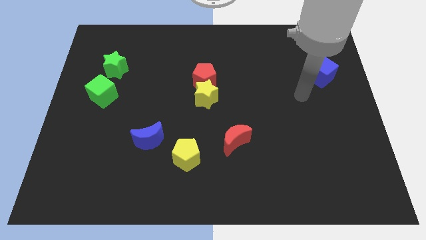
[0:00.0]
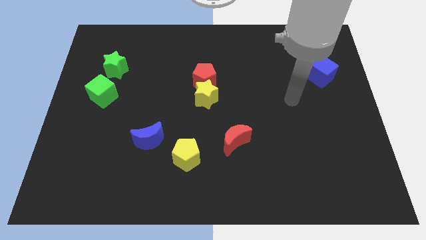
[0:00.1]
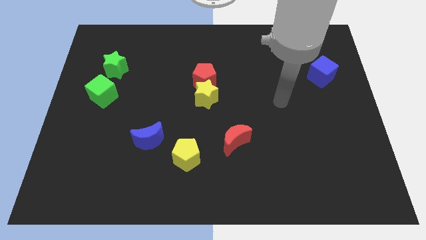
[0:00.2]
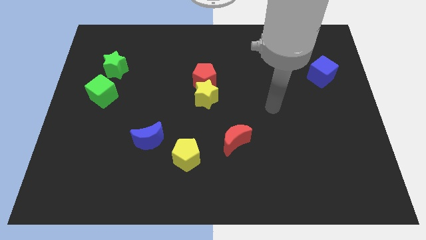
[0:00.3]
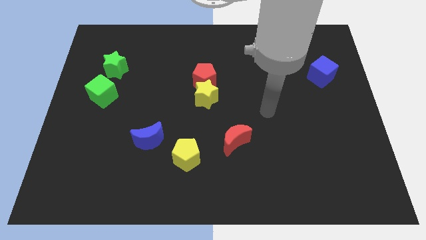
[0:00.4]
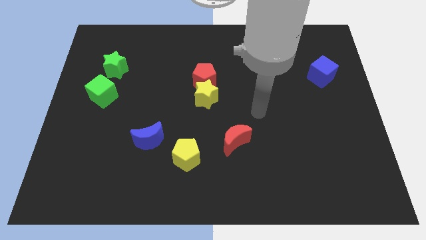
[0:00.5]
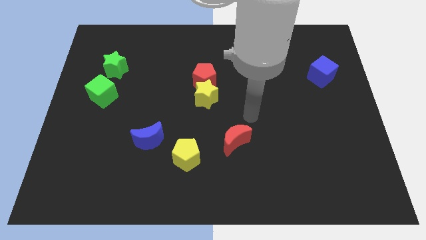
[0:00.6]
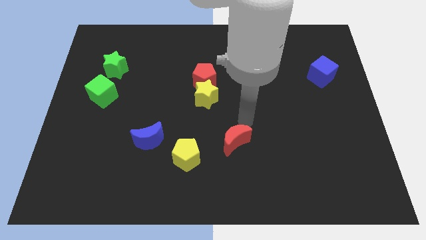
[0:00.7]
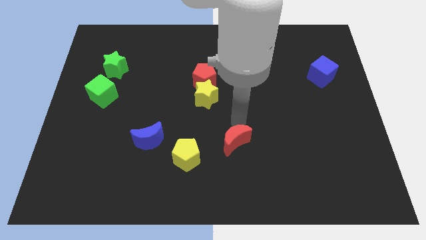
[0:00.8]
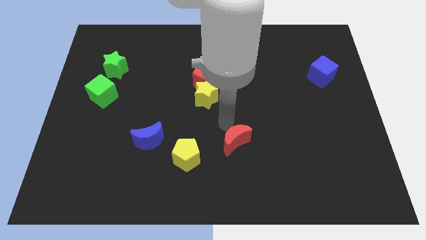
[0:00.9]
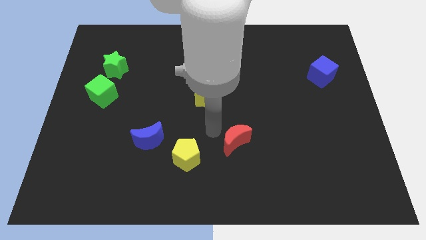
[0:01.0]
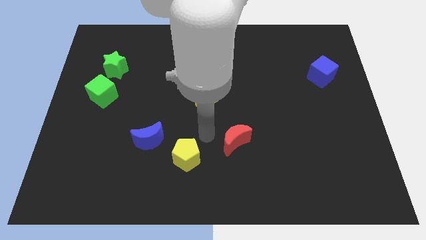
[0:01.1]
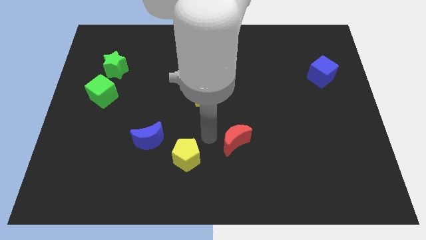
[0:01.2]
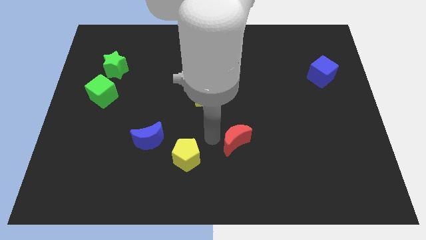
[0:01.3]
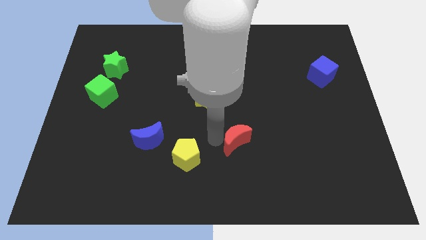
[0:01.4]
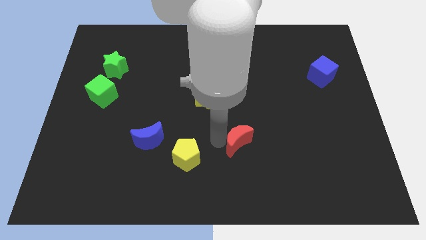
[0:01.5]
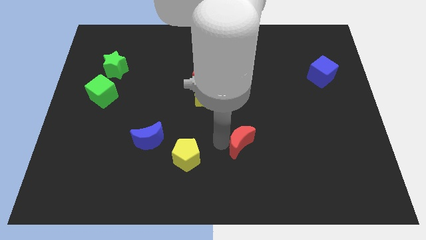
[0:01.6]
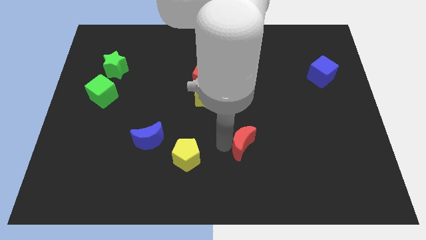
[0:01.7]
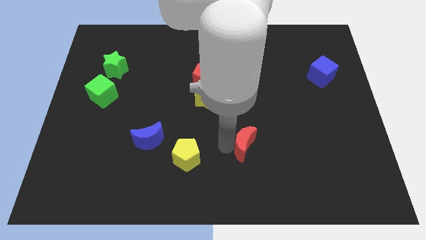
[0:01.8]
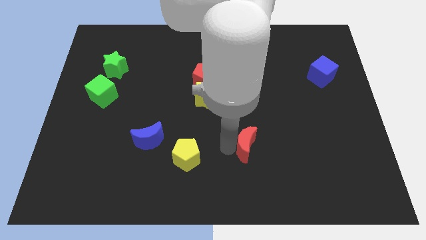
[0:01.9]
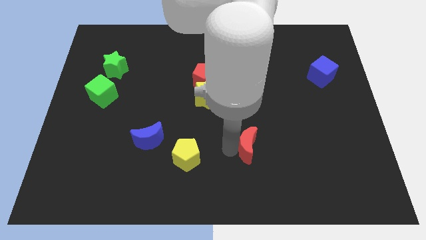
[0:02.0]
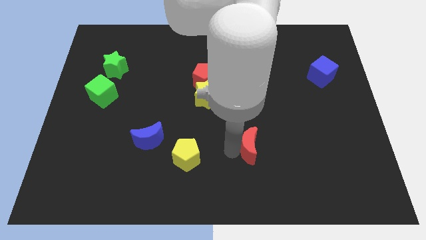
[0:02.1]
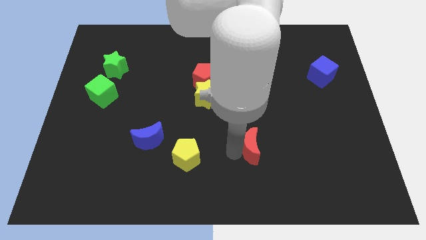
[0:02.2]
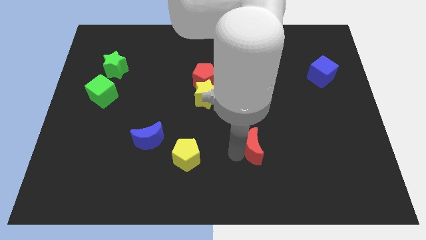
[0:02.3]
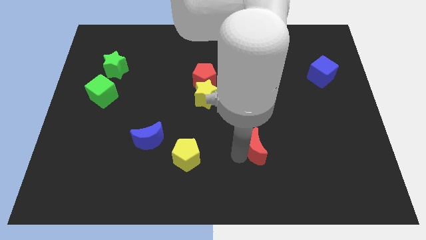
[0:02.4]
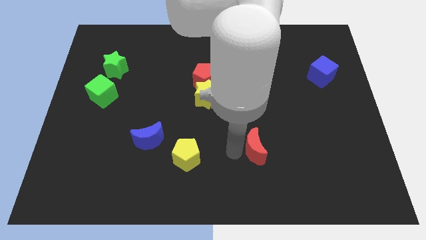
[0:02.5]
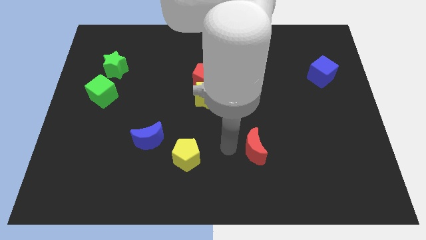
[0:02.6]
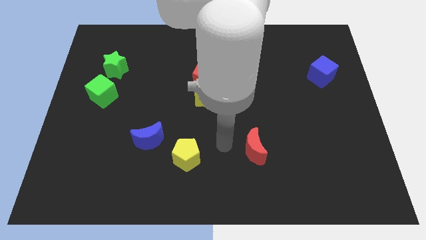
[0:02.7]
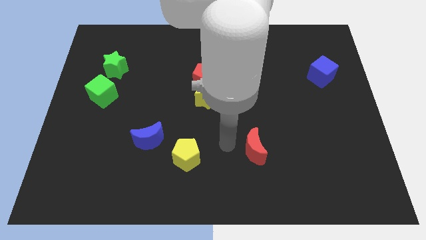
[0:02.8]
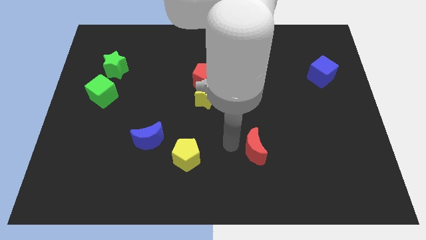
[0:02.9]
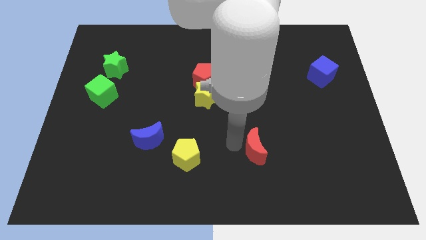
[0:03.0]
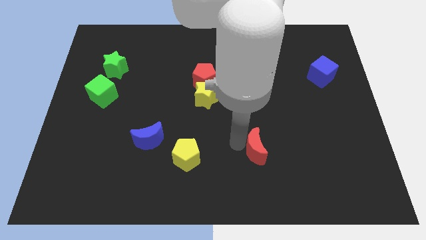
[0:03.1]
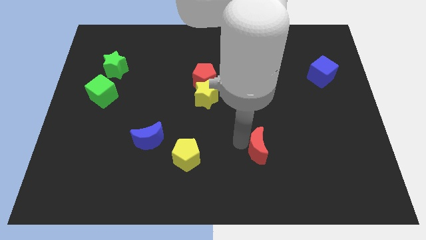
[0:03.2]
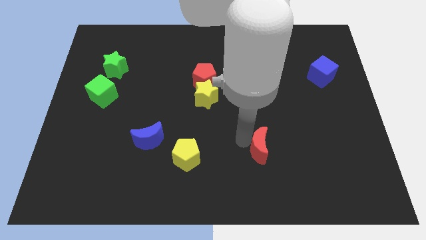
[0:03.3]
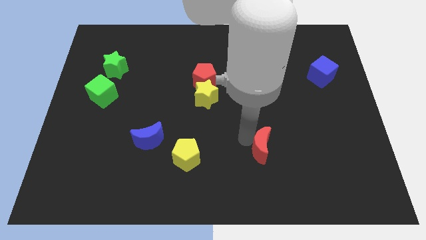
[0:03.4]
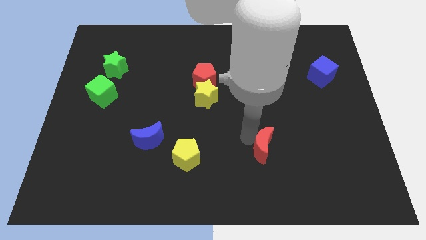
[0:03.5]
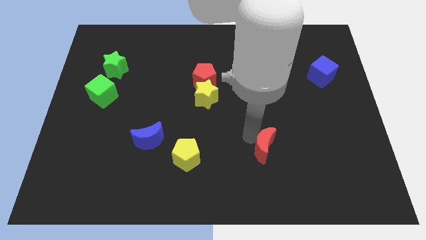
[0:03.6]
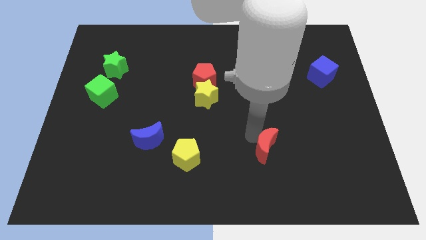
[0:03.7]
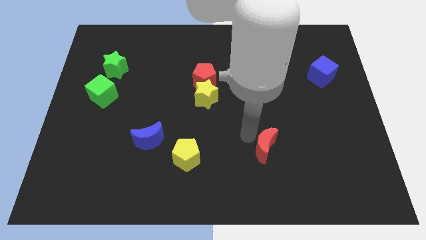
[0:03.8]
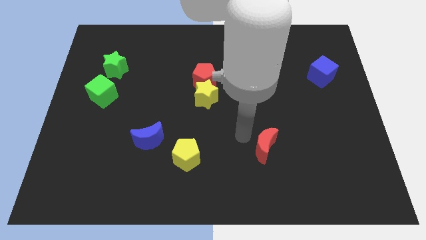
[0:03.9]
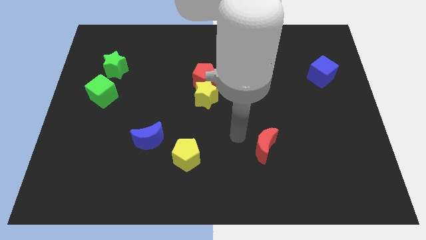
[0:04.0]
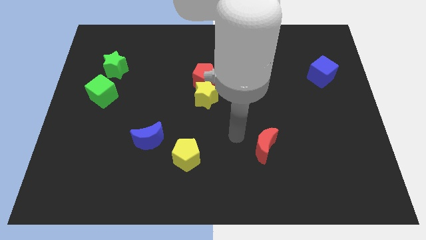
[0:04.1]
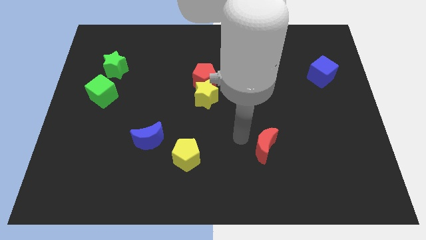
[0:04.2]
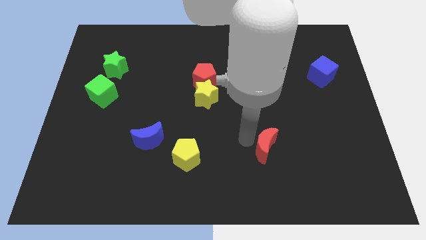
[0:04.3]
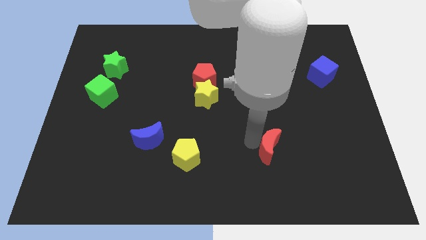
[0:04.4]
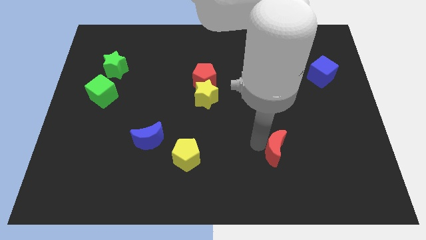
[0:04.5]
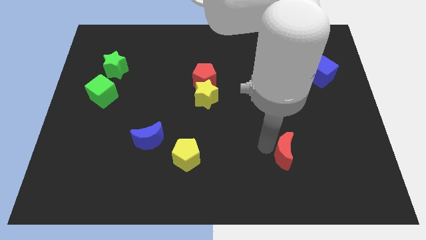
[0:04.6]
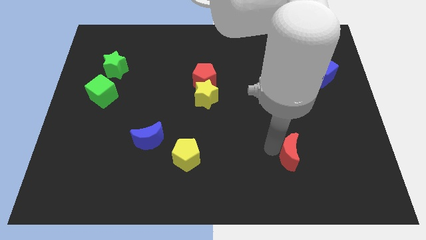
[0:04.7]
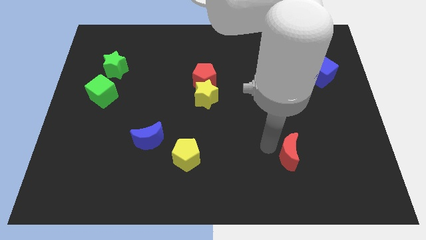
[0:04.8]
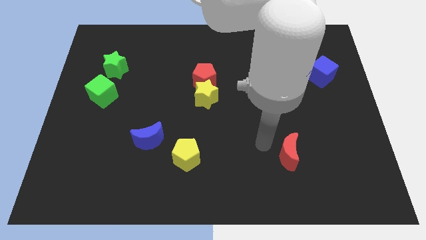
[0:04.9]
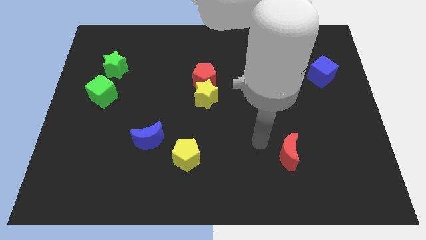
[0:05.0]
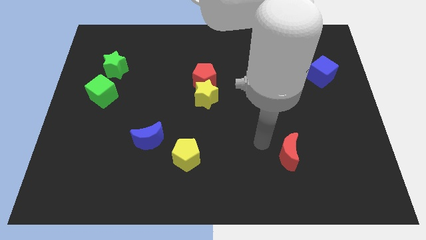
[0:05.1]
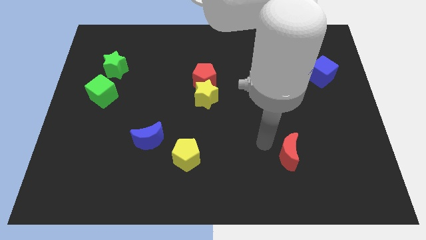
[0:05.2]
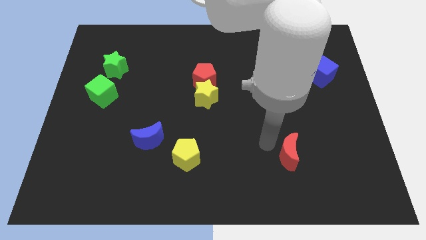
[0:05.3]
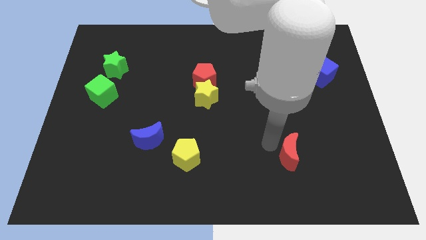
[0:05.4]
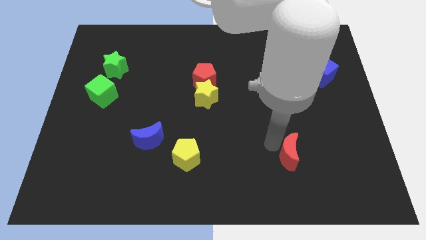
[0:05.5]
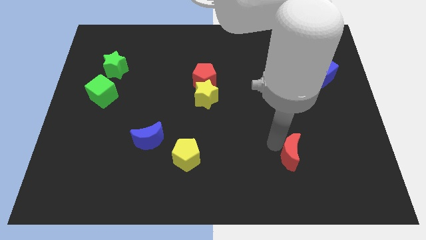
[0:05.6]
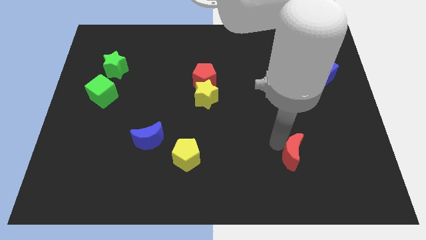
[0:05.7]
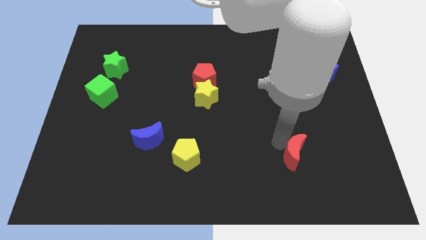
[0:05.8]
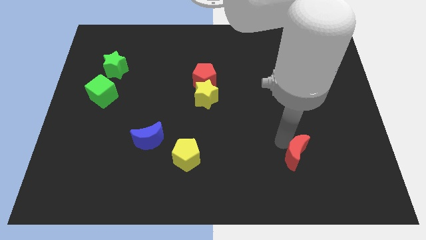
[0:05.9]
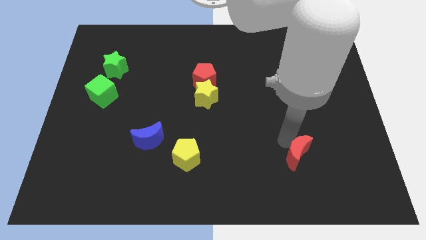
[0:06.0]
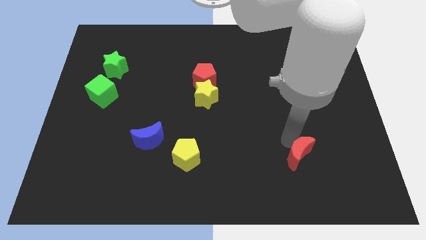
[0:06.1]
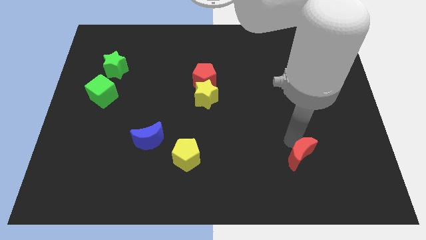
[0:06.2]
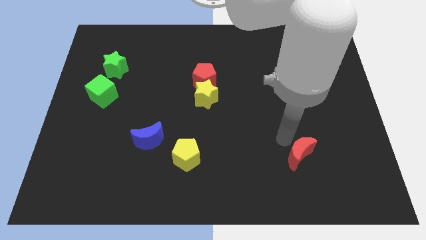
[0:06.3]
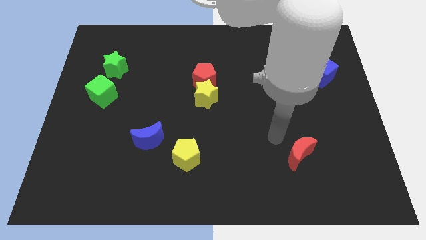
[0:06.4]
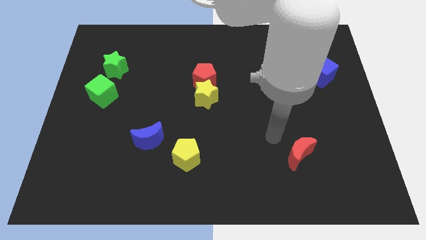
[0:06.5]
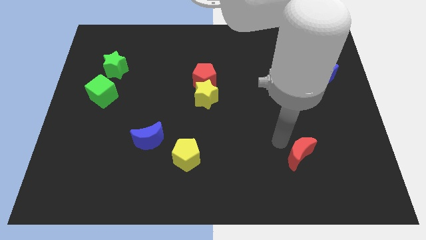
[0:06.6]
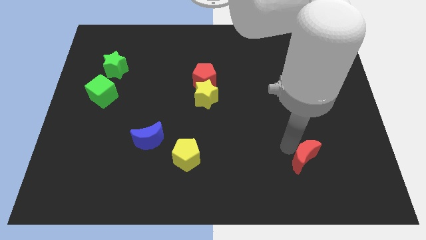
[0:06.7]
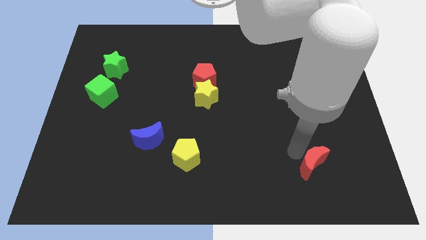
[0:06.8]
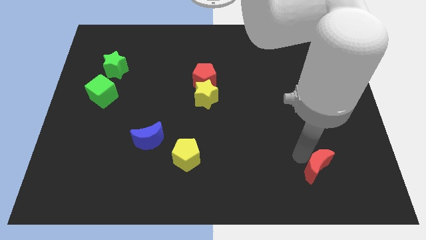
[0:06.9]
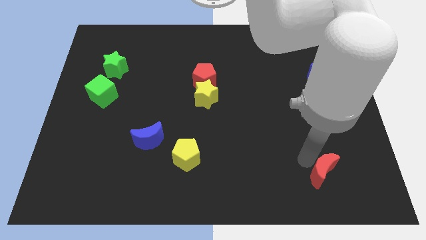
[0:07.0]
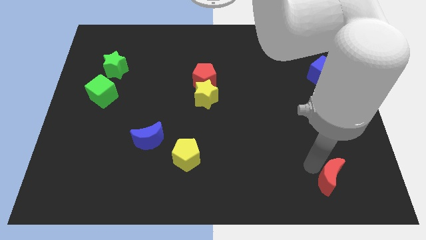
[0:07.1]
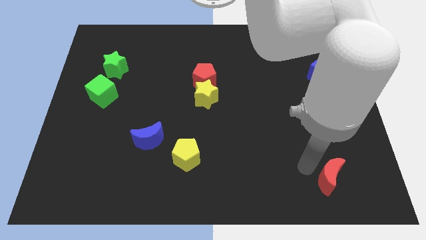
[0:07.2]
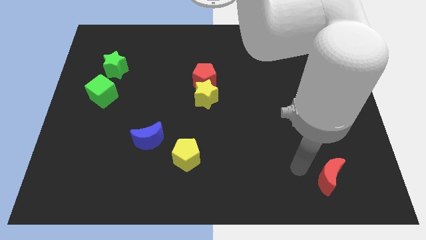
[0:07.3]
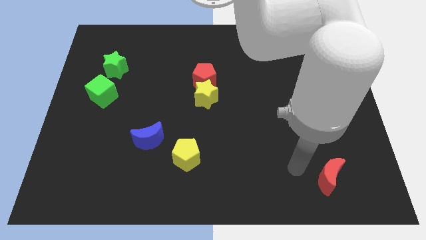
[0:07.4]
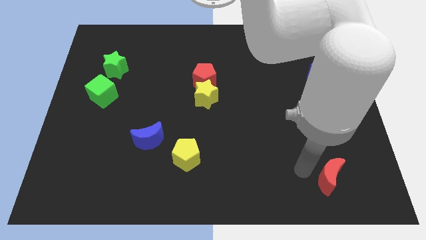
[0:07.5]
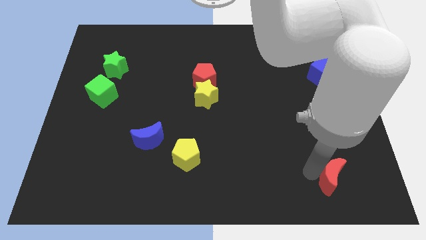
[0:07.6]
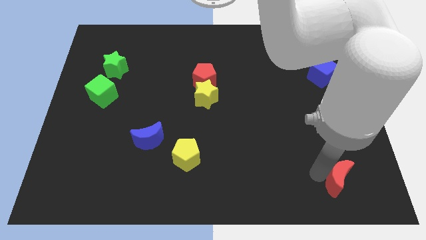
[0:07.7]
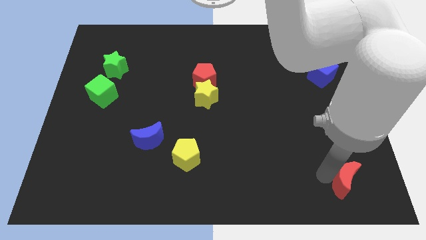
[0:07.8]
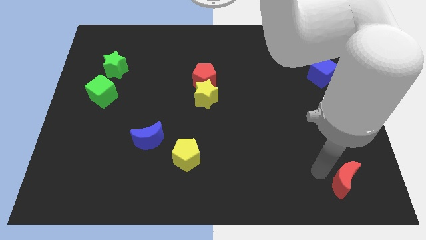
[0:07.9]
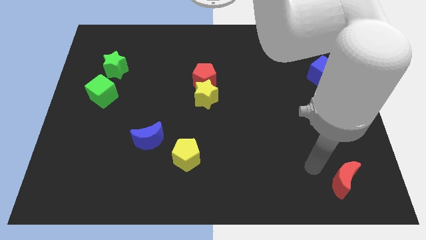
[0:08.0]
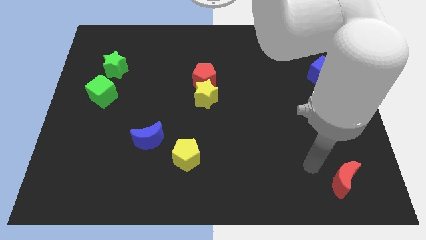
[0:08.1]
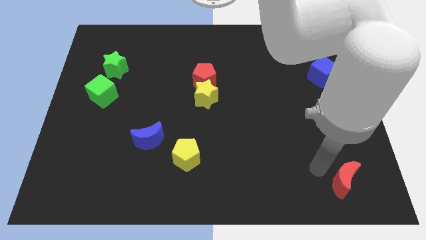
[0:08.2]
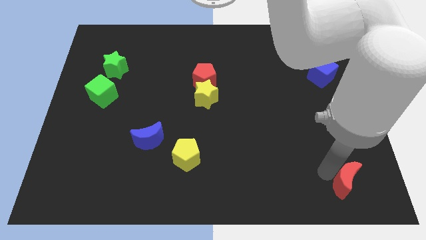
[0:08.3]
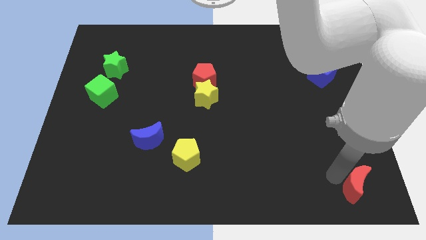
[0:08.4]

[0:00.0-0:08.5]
put the red moon to the bottom right corner
